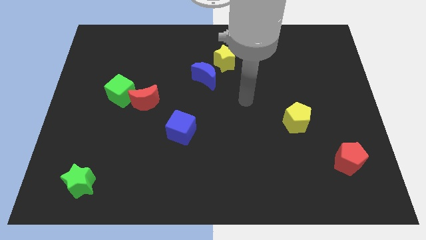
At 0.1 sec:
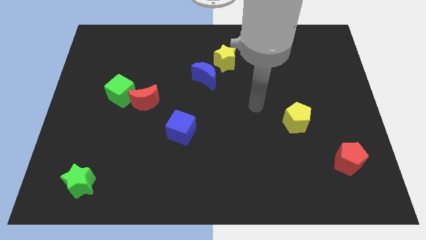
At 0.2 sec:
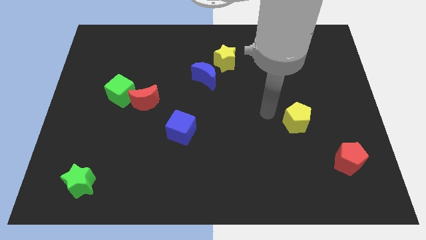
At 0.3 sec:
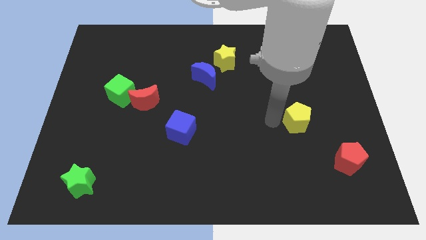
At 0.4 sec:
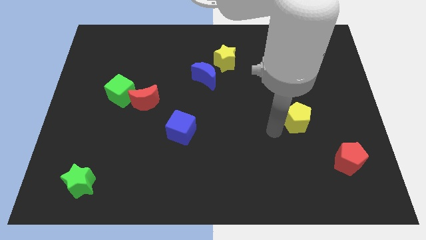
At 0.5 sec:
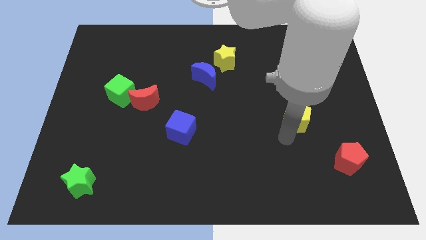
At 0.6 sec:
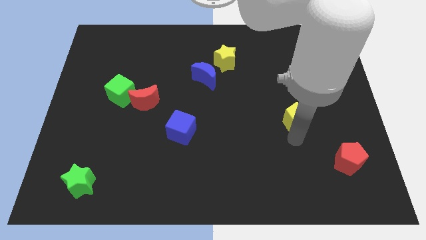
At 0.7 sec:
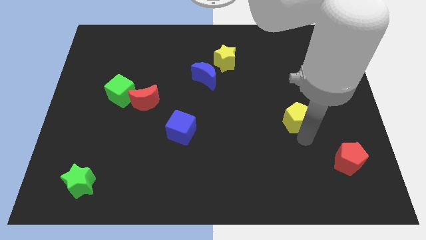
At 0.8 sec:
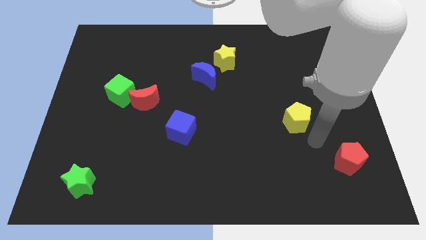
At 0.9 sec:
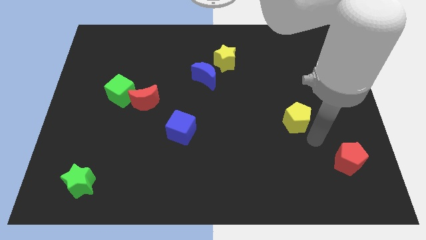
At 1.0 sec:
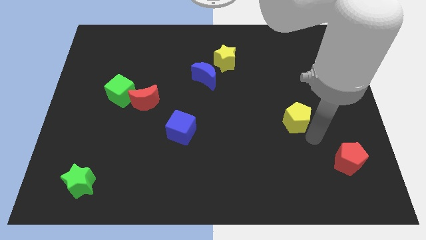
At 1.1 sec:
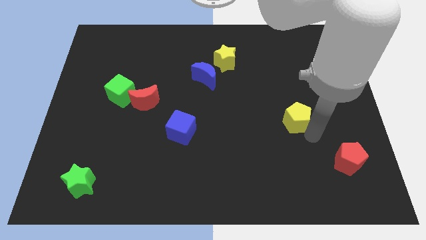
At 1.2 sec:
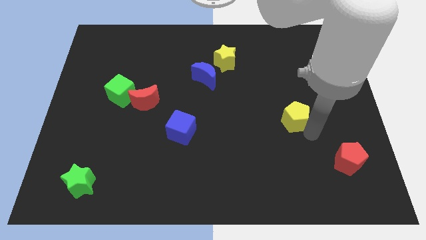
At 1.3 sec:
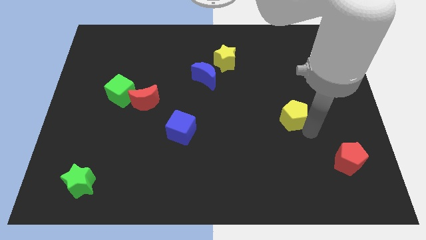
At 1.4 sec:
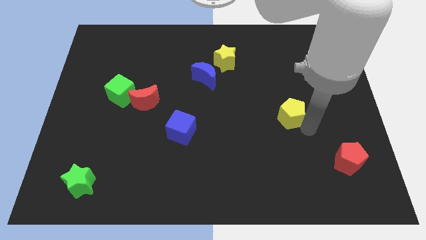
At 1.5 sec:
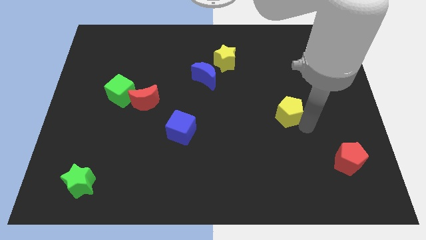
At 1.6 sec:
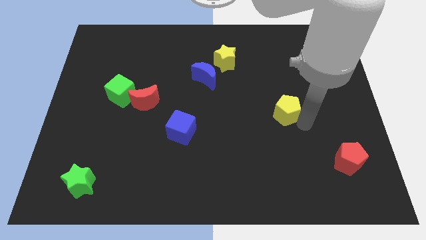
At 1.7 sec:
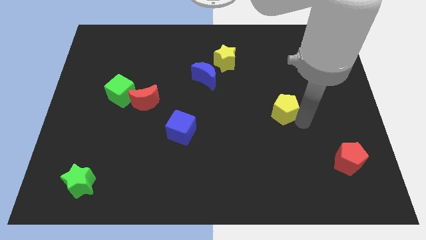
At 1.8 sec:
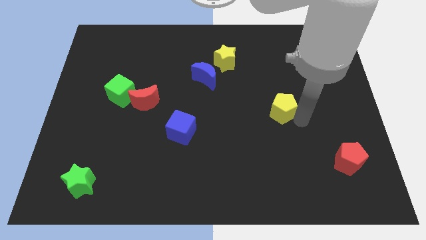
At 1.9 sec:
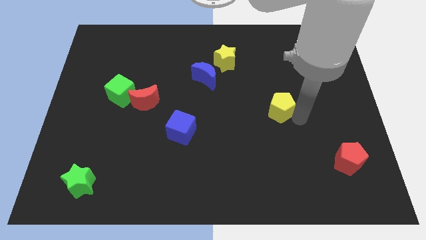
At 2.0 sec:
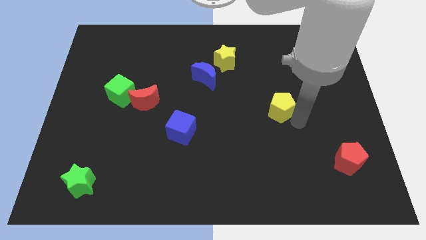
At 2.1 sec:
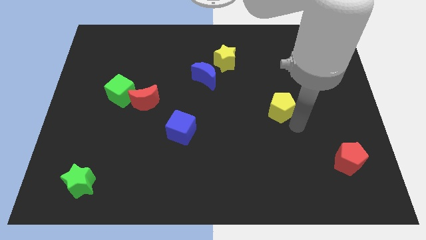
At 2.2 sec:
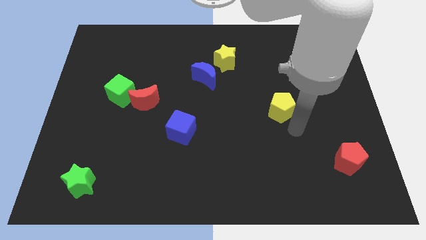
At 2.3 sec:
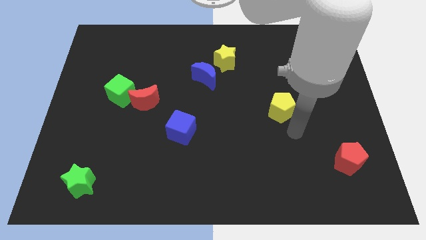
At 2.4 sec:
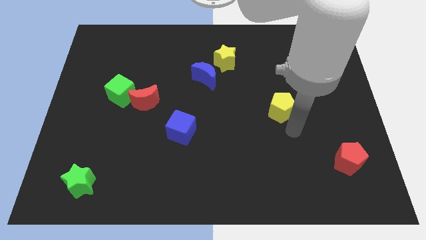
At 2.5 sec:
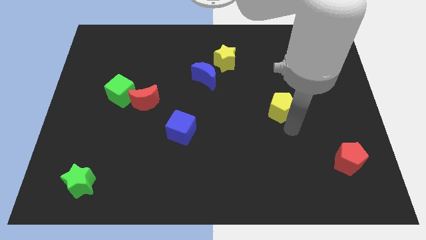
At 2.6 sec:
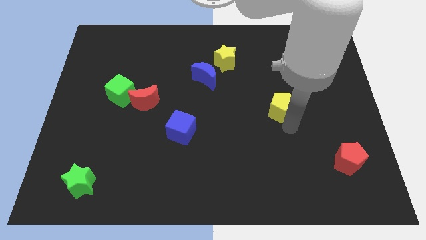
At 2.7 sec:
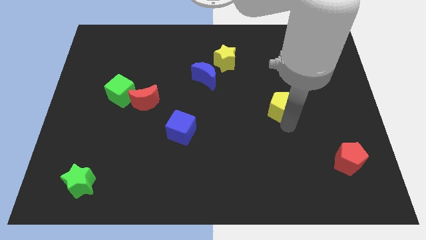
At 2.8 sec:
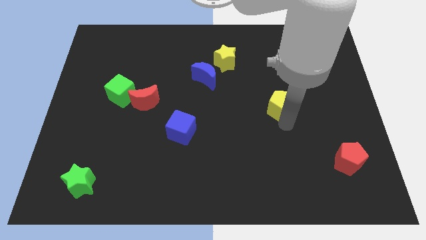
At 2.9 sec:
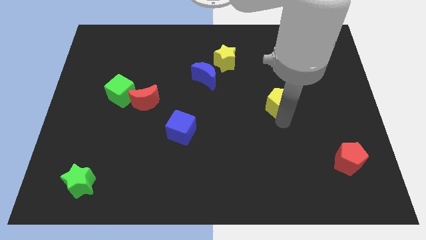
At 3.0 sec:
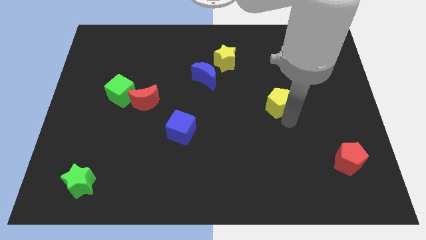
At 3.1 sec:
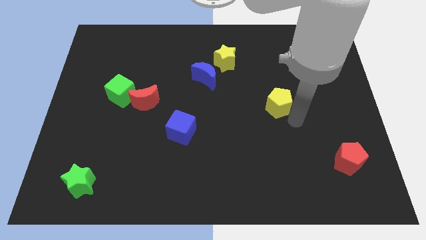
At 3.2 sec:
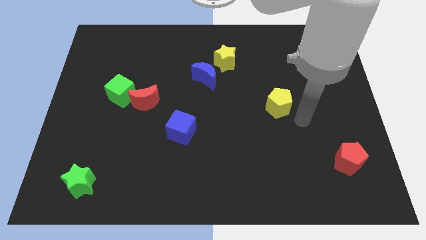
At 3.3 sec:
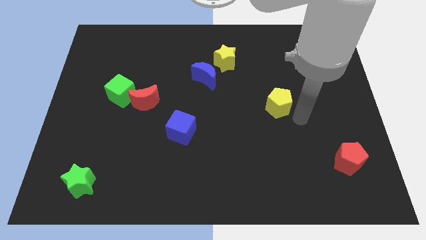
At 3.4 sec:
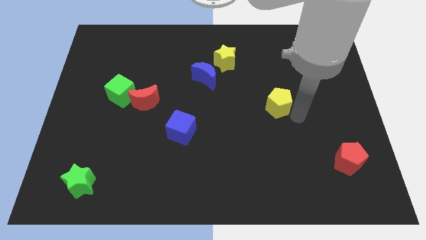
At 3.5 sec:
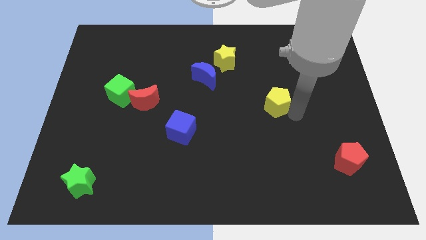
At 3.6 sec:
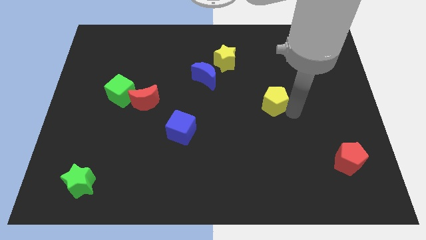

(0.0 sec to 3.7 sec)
slightly slide the yellow pentagon diagonally upwards and to the left

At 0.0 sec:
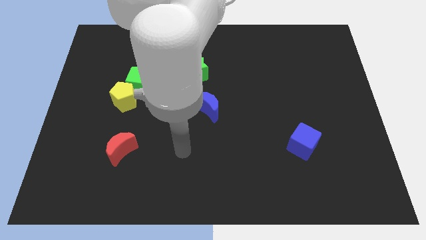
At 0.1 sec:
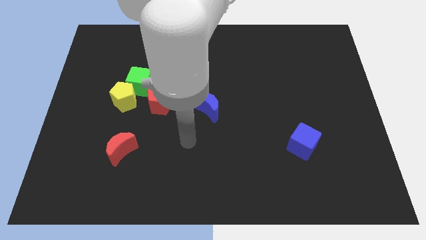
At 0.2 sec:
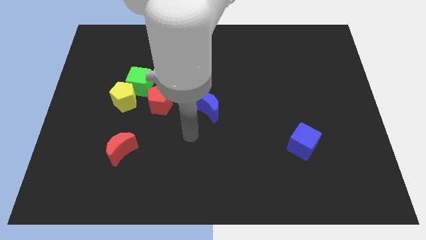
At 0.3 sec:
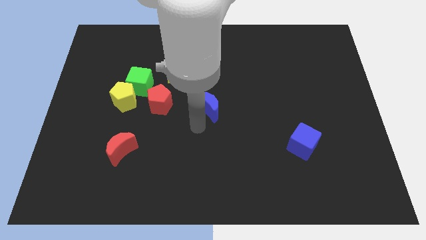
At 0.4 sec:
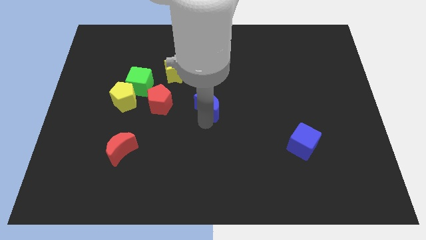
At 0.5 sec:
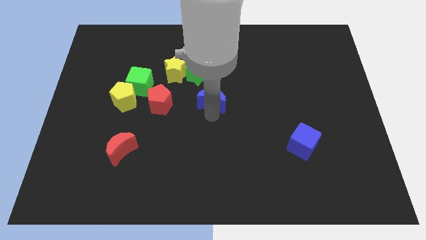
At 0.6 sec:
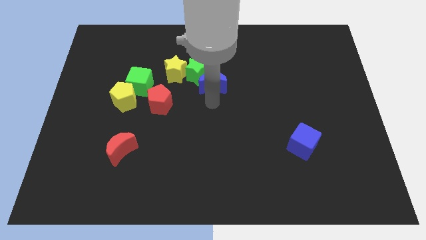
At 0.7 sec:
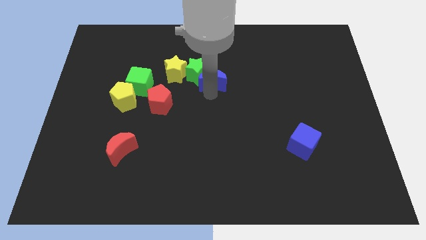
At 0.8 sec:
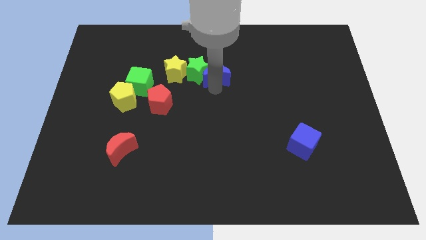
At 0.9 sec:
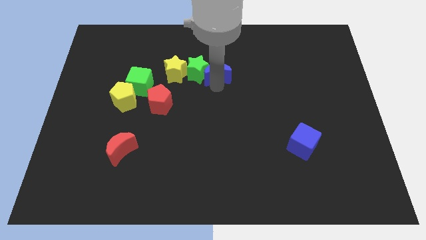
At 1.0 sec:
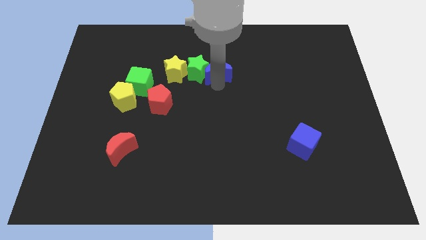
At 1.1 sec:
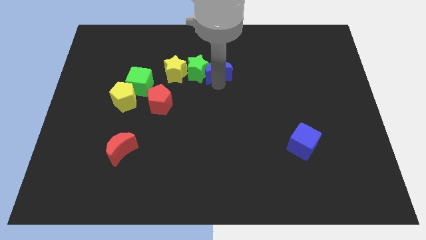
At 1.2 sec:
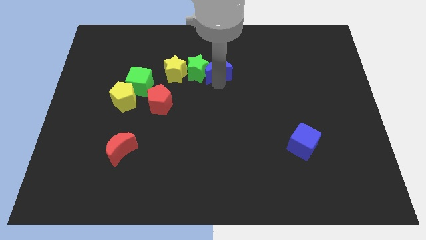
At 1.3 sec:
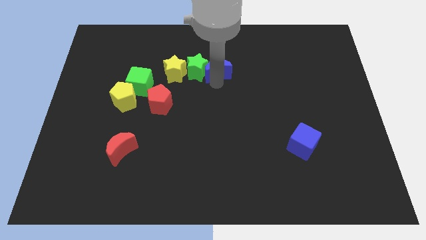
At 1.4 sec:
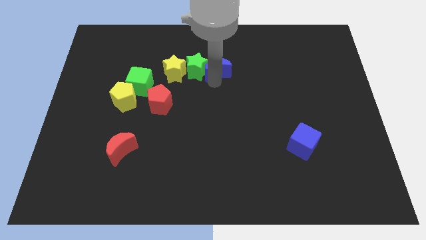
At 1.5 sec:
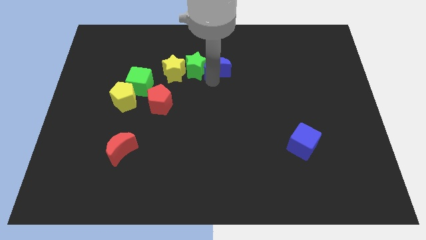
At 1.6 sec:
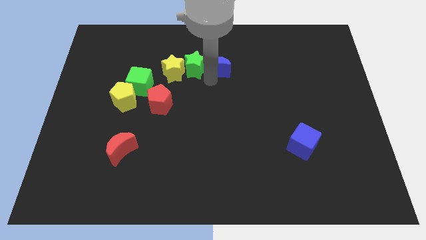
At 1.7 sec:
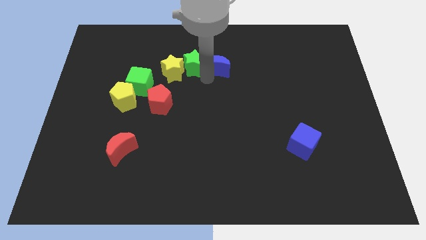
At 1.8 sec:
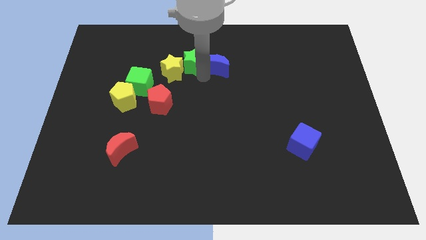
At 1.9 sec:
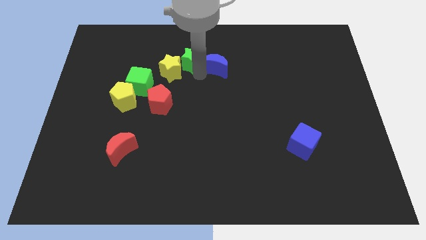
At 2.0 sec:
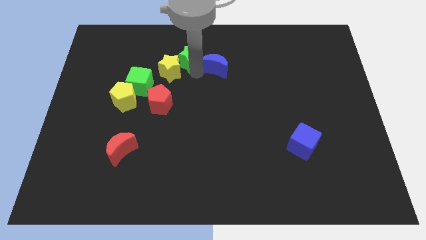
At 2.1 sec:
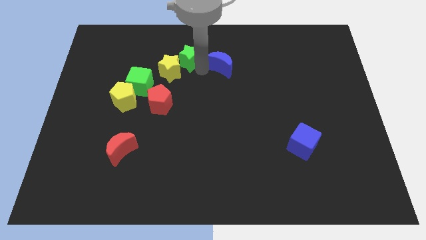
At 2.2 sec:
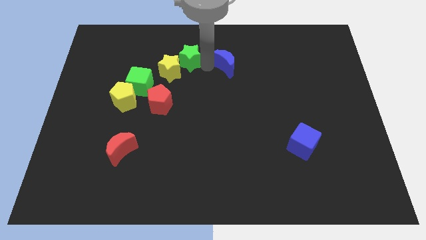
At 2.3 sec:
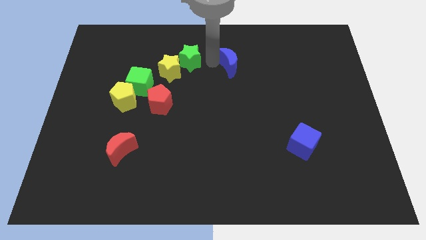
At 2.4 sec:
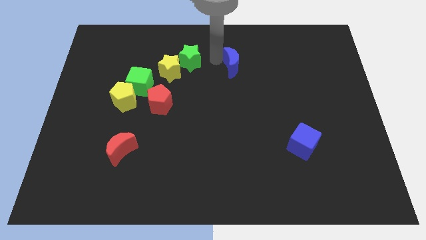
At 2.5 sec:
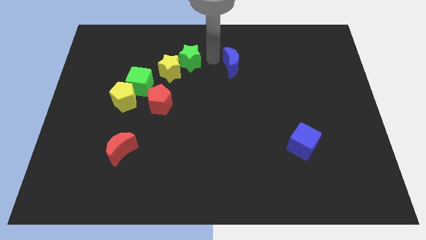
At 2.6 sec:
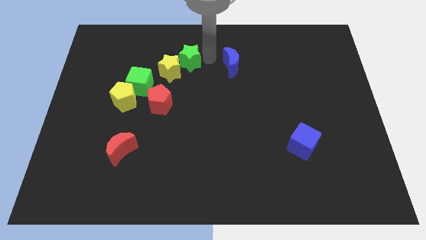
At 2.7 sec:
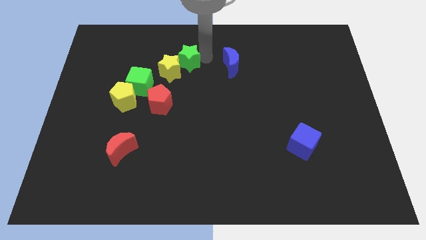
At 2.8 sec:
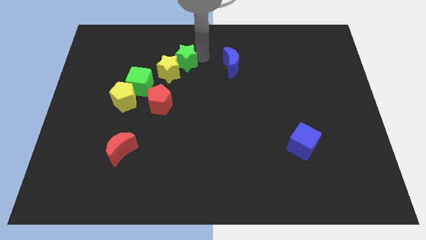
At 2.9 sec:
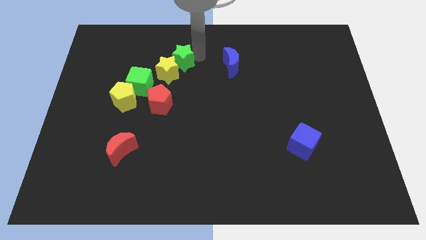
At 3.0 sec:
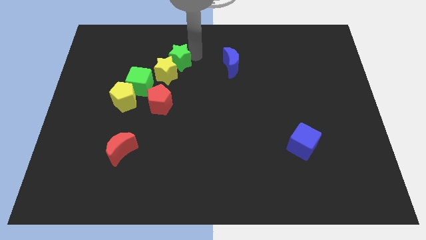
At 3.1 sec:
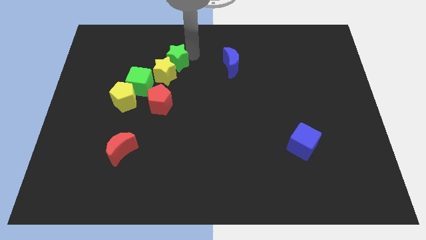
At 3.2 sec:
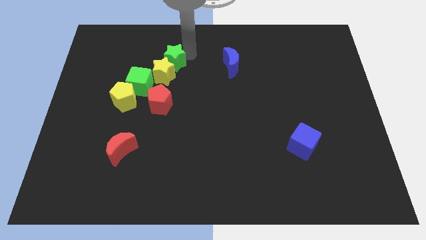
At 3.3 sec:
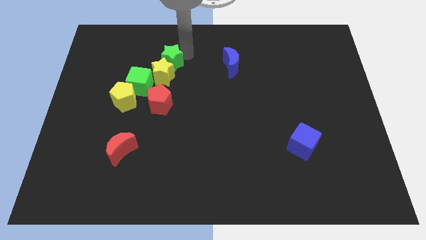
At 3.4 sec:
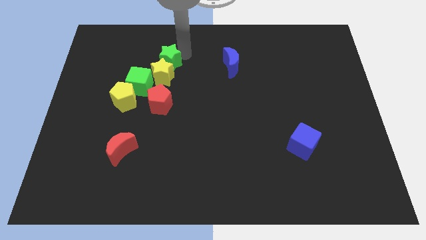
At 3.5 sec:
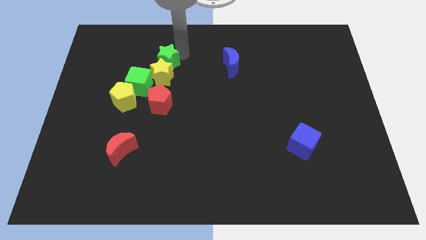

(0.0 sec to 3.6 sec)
slide the green star a bit left

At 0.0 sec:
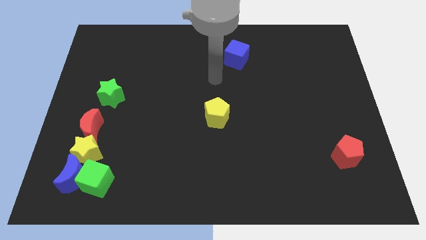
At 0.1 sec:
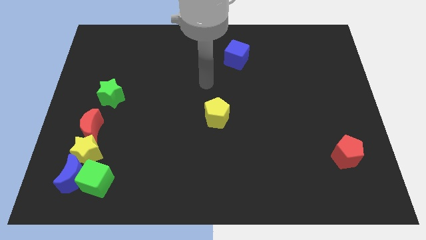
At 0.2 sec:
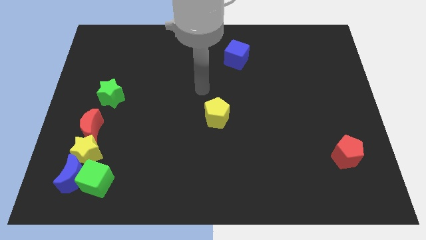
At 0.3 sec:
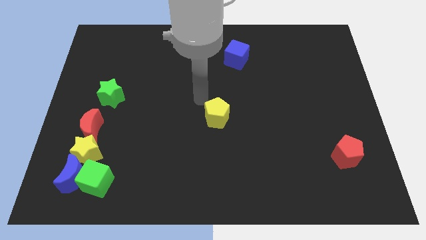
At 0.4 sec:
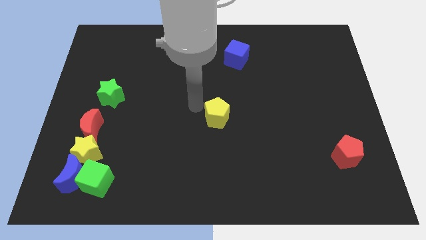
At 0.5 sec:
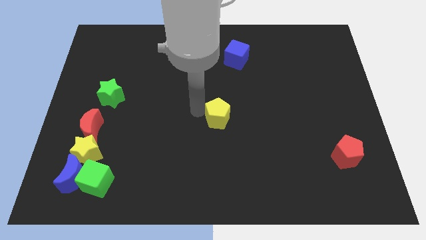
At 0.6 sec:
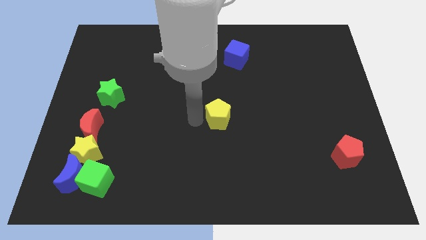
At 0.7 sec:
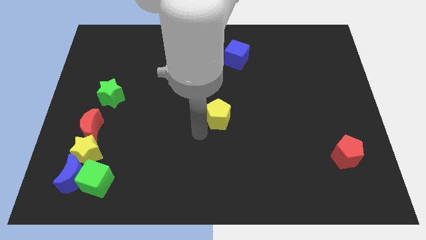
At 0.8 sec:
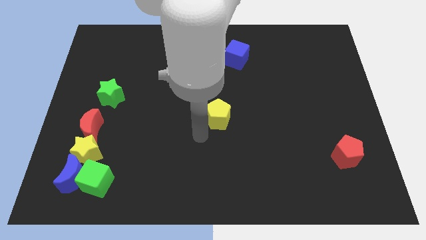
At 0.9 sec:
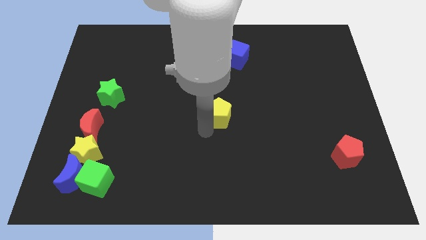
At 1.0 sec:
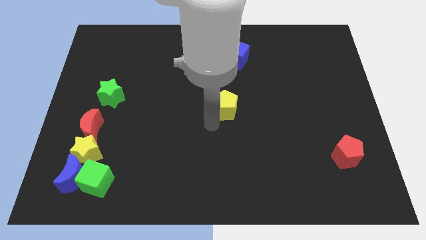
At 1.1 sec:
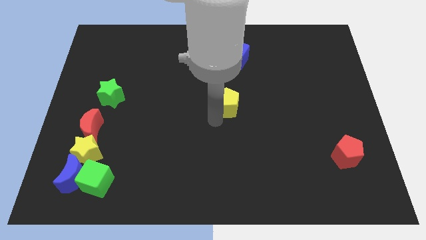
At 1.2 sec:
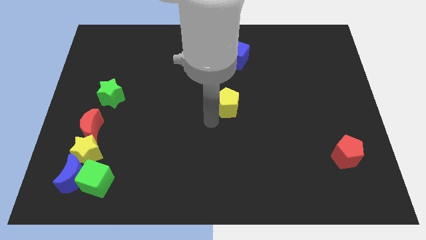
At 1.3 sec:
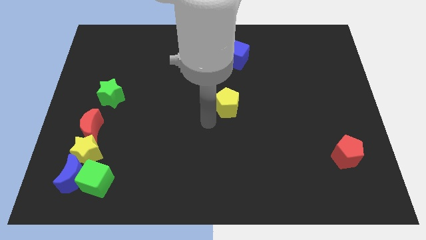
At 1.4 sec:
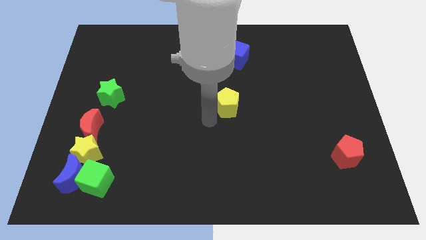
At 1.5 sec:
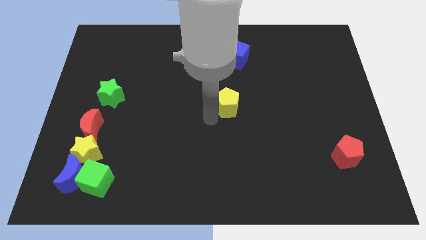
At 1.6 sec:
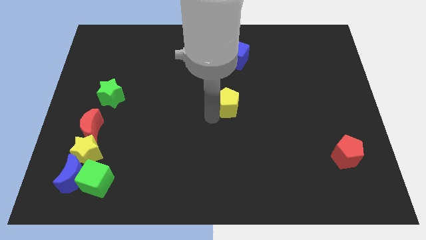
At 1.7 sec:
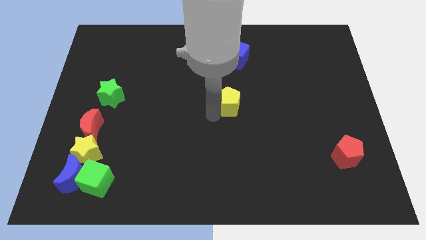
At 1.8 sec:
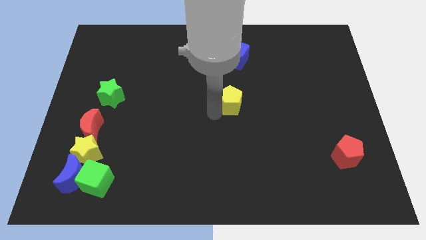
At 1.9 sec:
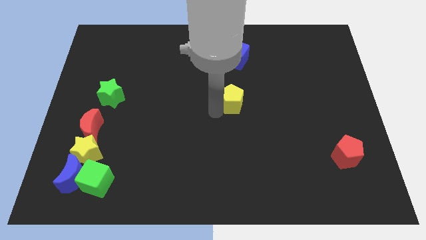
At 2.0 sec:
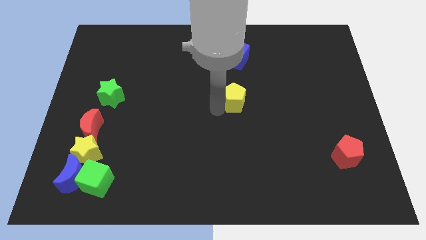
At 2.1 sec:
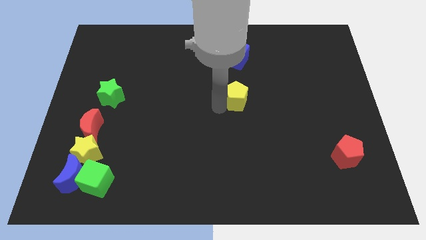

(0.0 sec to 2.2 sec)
slightly slide the yellow pentagon up and then right
